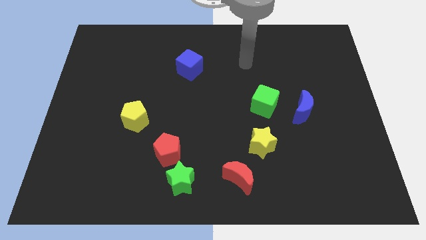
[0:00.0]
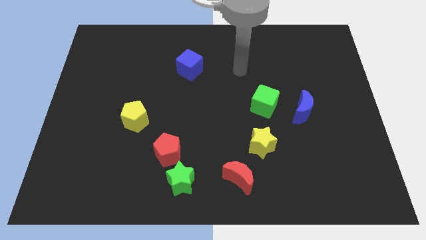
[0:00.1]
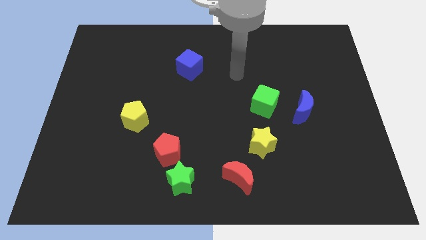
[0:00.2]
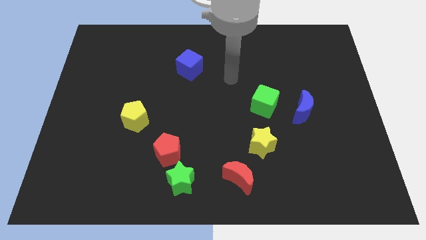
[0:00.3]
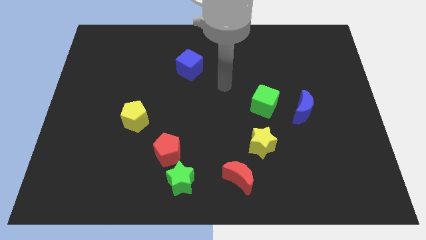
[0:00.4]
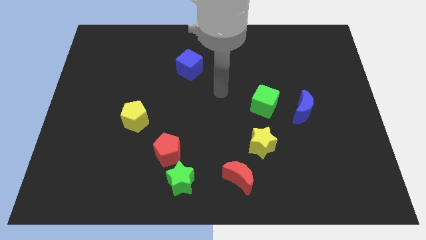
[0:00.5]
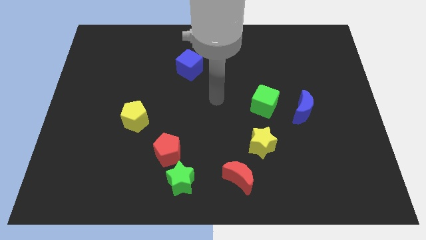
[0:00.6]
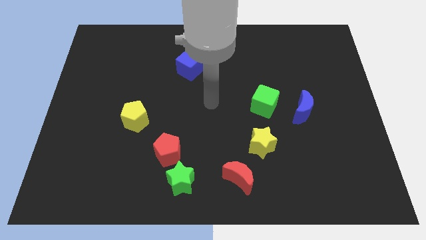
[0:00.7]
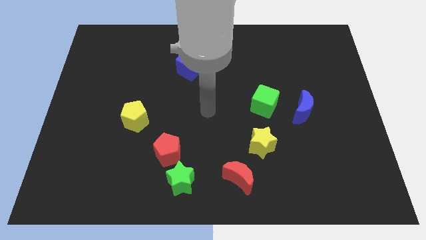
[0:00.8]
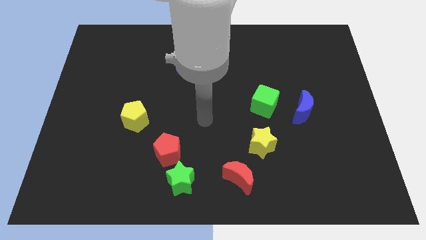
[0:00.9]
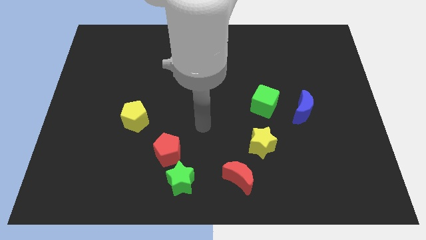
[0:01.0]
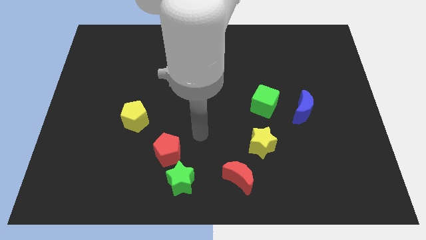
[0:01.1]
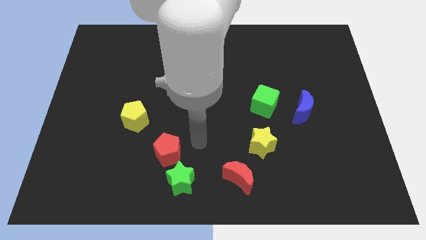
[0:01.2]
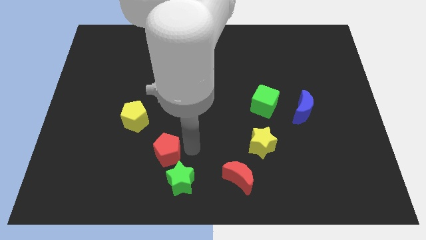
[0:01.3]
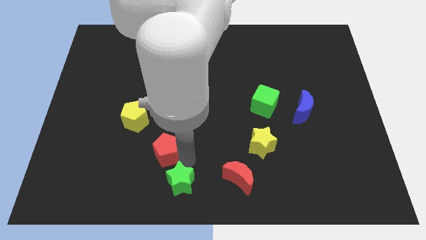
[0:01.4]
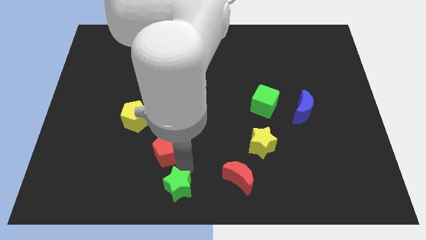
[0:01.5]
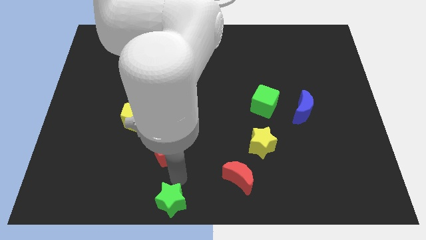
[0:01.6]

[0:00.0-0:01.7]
separate the red pentagon from the green star

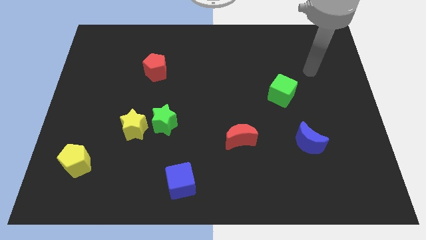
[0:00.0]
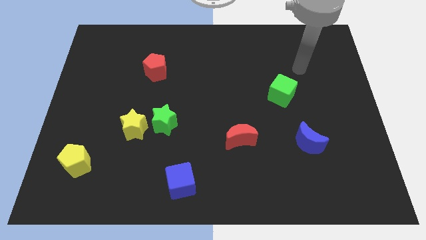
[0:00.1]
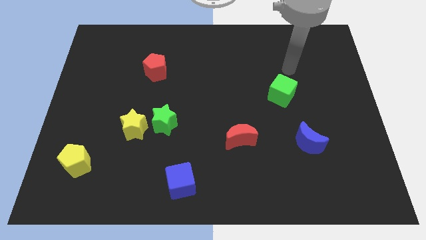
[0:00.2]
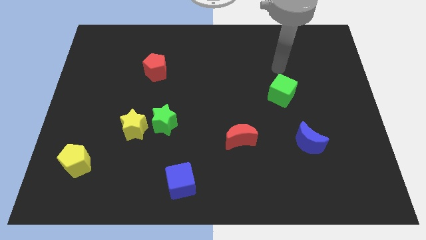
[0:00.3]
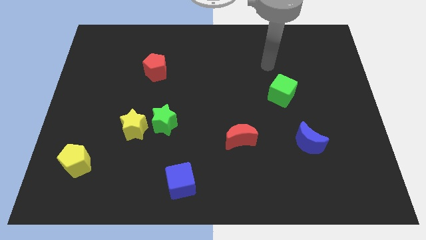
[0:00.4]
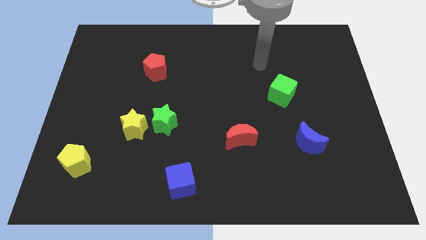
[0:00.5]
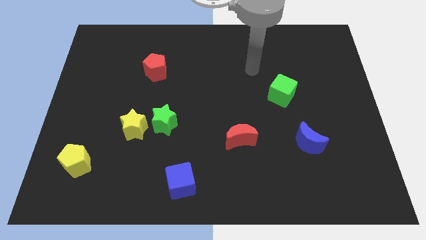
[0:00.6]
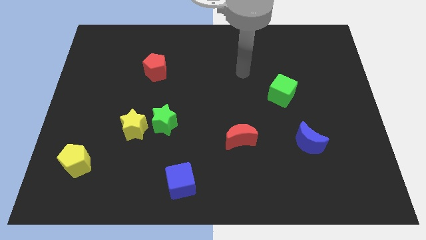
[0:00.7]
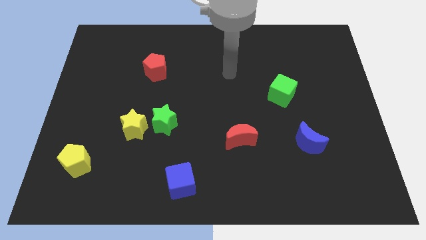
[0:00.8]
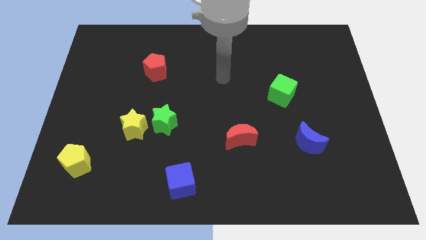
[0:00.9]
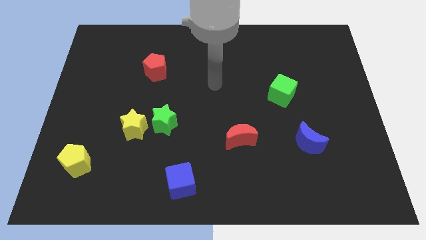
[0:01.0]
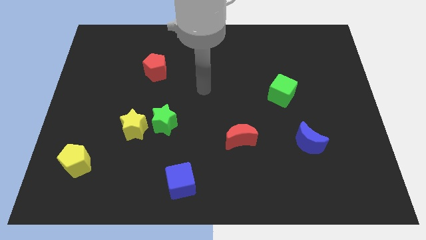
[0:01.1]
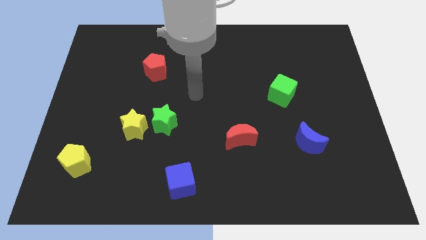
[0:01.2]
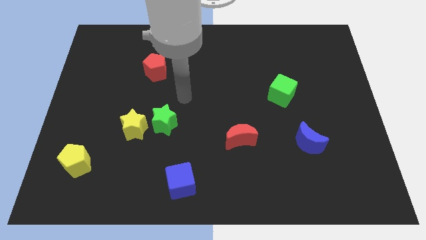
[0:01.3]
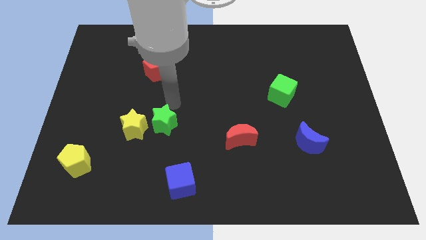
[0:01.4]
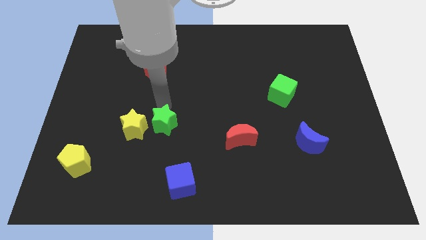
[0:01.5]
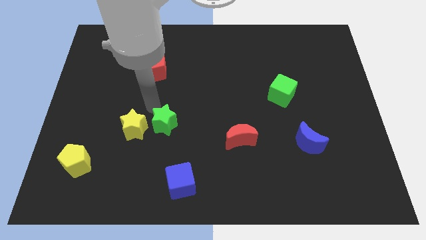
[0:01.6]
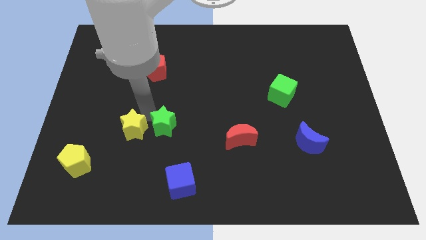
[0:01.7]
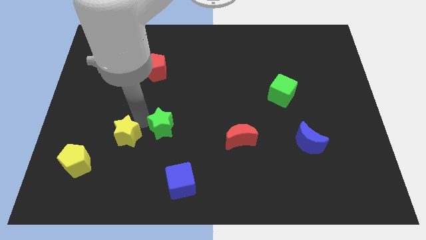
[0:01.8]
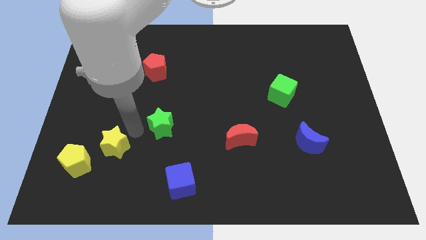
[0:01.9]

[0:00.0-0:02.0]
separate the green star from the yellow star

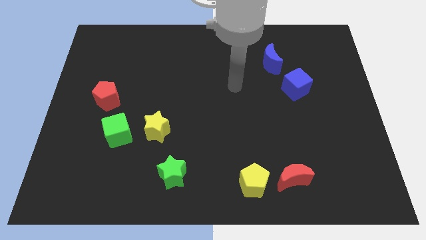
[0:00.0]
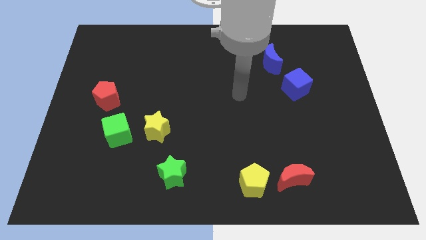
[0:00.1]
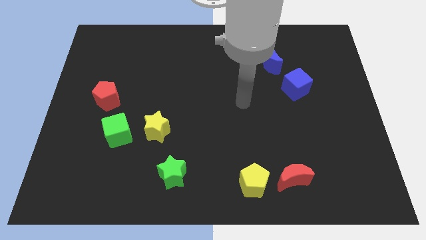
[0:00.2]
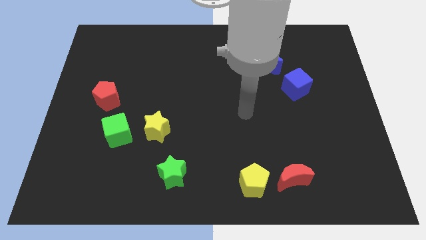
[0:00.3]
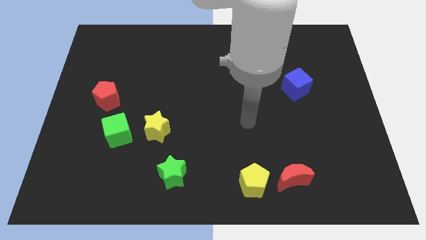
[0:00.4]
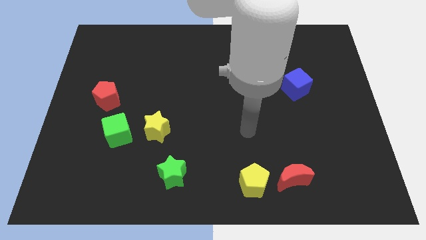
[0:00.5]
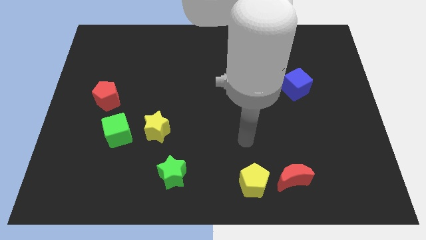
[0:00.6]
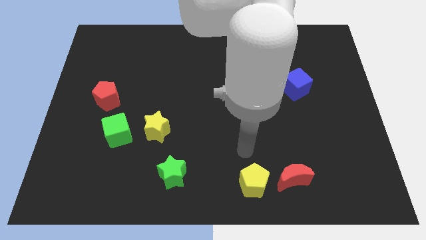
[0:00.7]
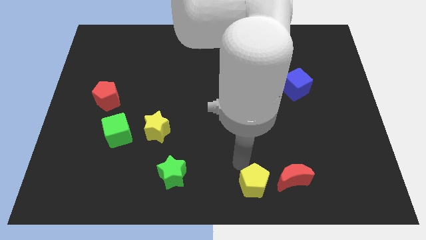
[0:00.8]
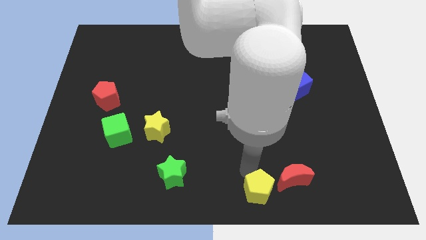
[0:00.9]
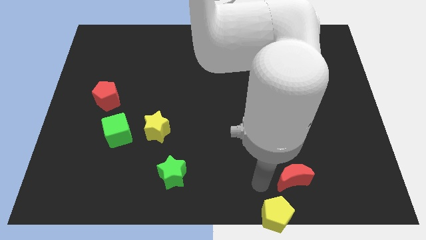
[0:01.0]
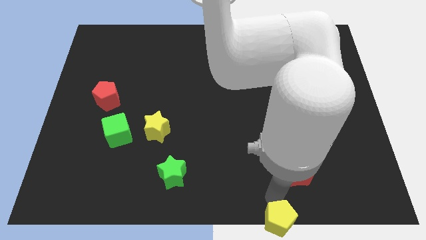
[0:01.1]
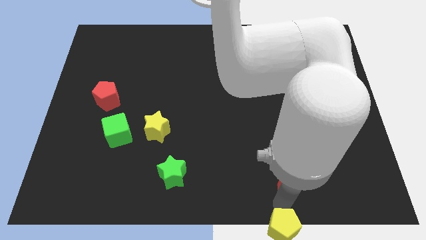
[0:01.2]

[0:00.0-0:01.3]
move the red moon away from the yellow pentagon

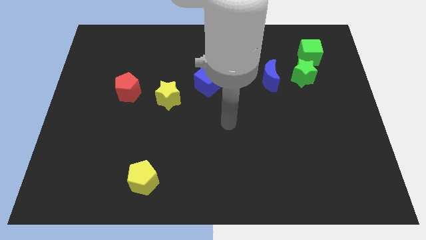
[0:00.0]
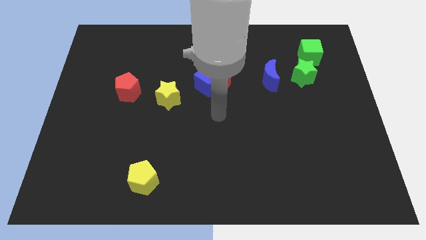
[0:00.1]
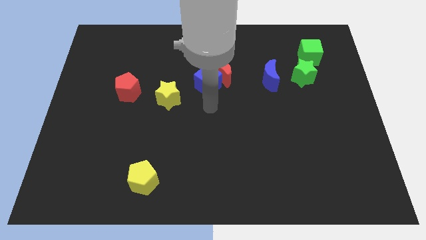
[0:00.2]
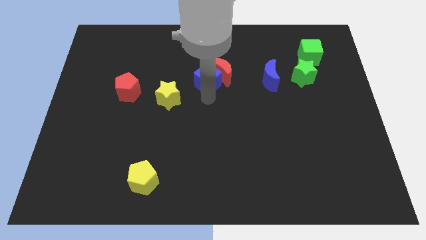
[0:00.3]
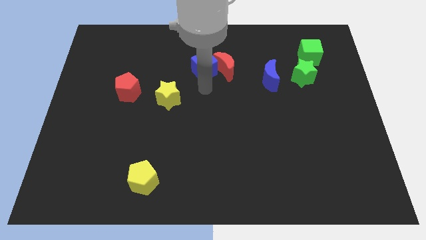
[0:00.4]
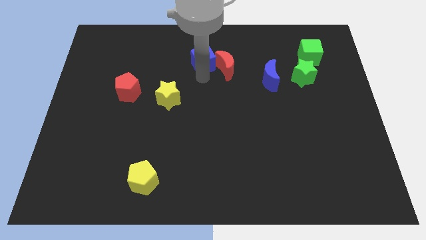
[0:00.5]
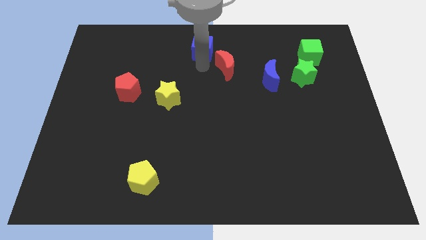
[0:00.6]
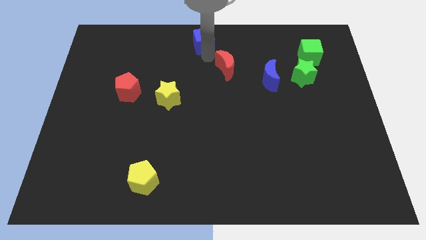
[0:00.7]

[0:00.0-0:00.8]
pull the red moon apart from the blue cube

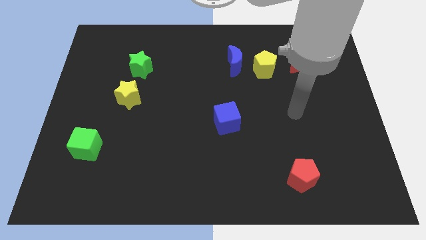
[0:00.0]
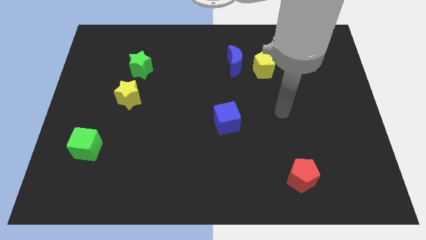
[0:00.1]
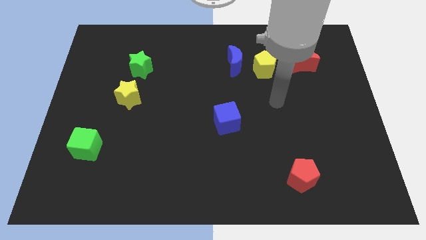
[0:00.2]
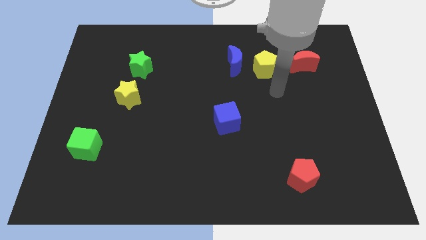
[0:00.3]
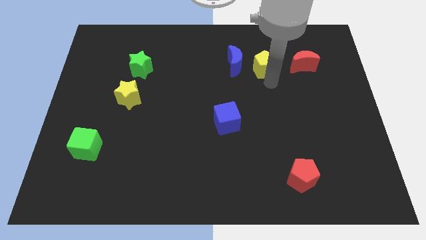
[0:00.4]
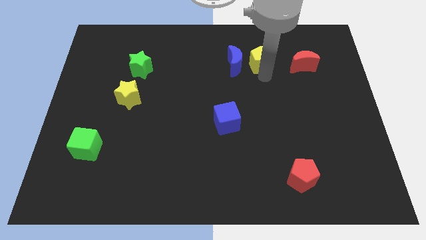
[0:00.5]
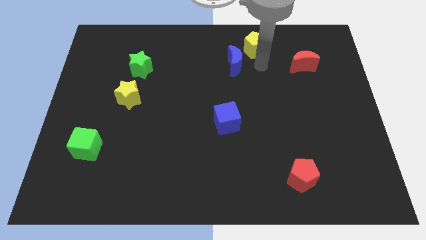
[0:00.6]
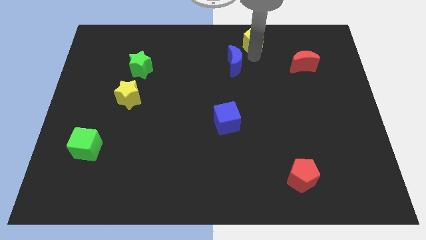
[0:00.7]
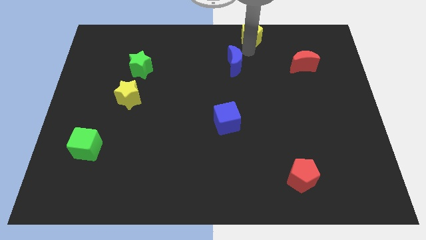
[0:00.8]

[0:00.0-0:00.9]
separate the blue moon from the yellow pentagon

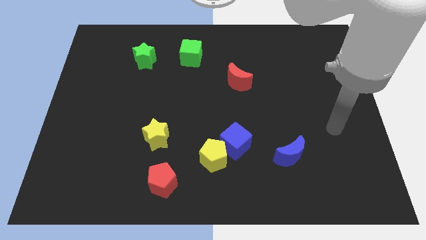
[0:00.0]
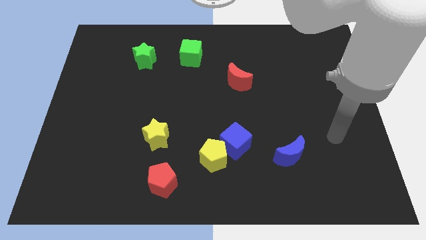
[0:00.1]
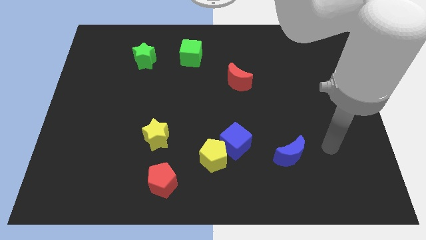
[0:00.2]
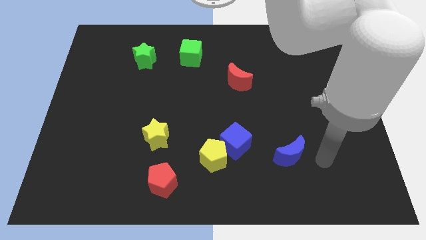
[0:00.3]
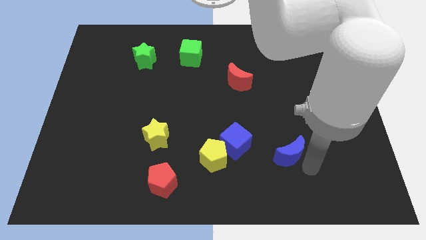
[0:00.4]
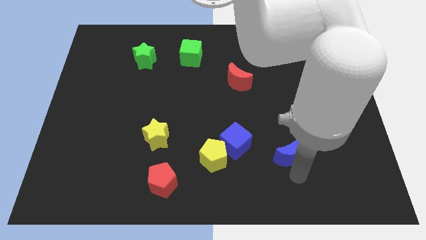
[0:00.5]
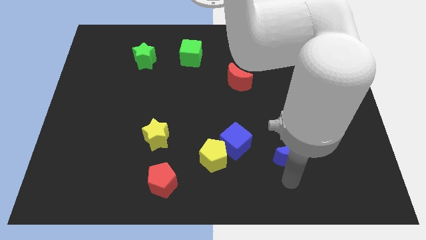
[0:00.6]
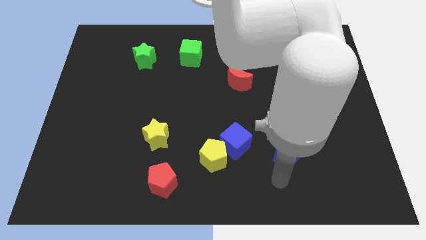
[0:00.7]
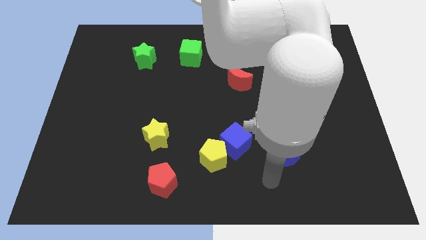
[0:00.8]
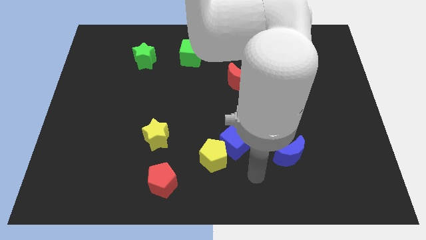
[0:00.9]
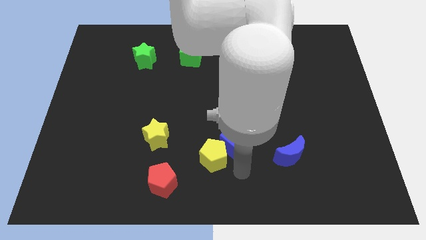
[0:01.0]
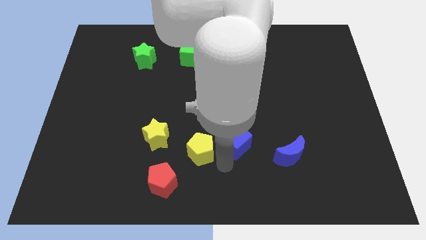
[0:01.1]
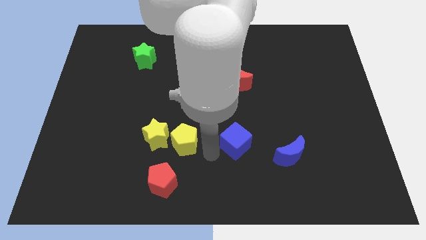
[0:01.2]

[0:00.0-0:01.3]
move the blue cube away from the yellow pentagon

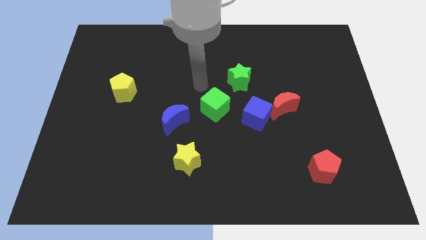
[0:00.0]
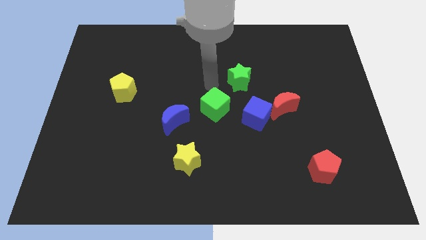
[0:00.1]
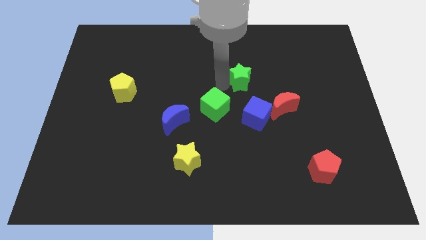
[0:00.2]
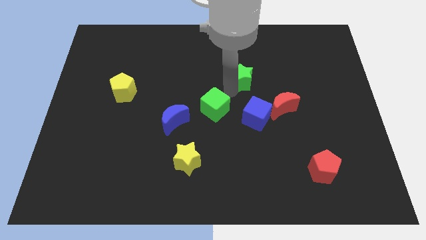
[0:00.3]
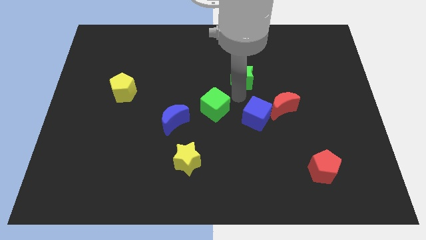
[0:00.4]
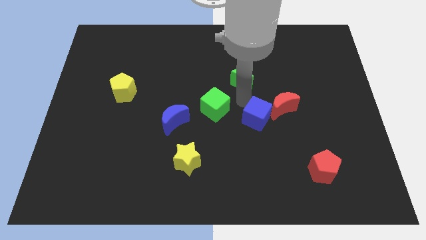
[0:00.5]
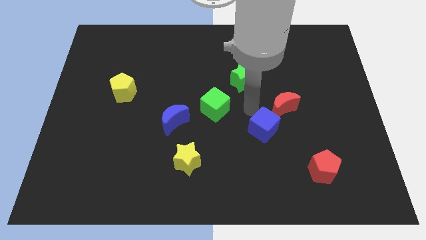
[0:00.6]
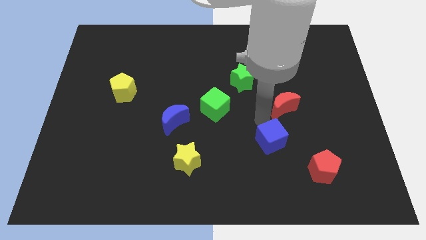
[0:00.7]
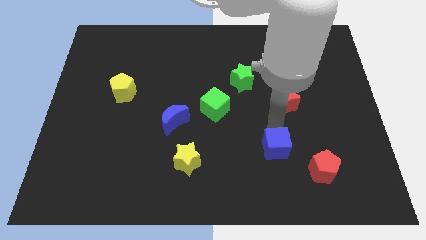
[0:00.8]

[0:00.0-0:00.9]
move the red moon away from the blue cube

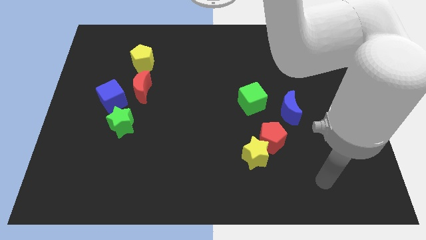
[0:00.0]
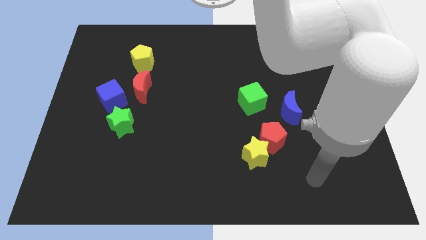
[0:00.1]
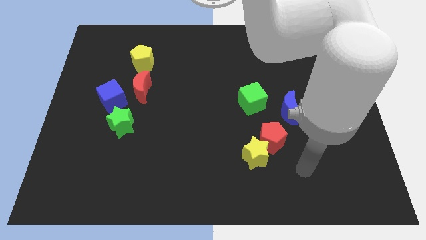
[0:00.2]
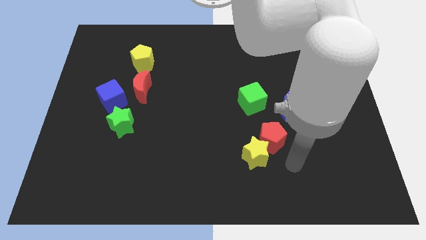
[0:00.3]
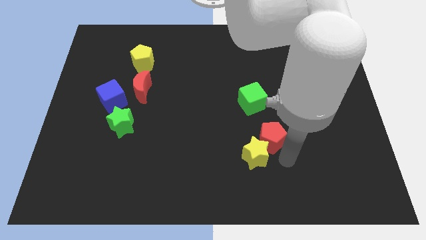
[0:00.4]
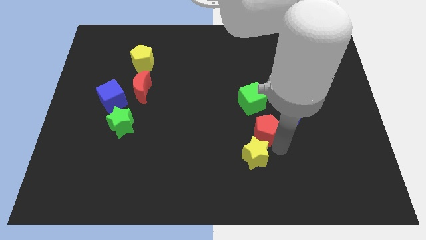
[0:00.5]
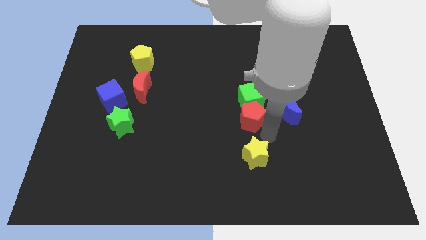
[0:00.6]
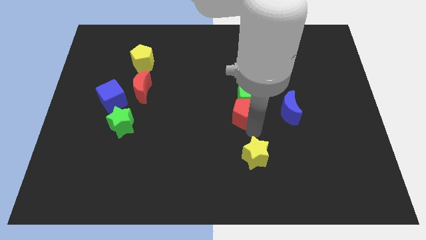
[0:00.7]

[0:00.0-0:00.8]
move the yellow star away from the red pentagon
